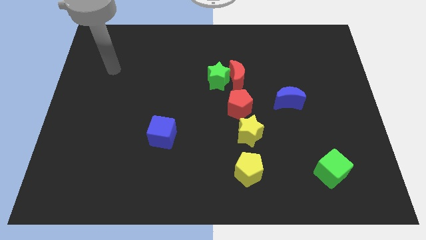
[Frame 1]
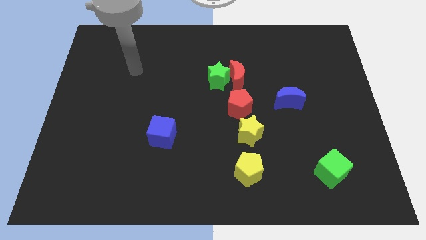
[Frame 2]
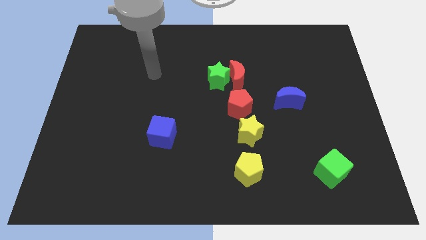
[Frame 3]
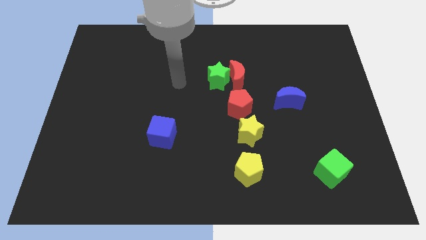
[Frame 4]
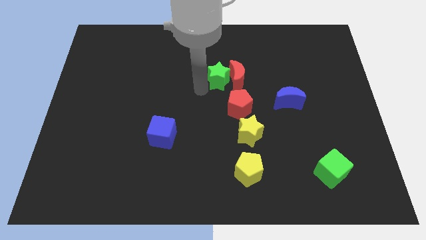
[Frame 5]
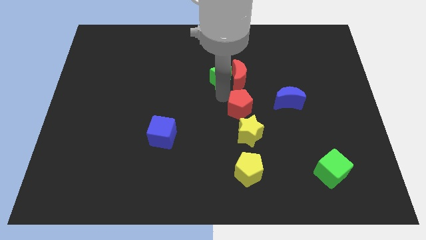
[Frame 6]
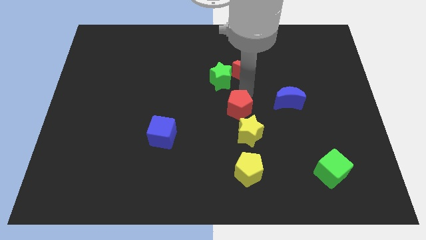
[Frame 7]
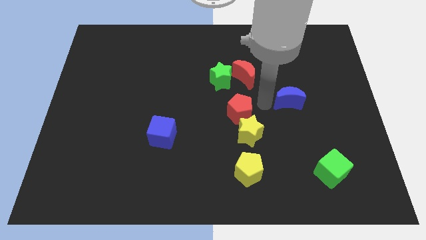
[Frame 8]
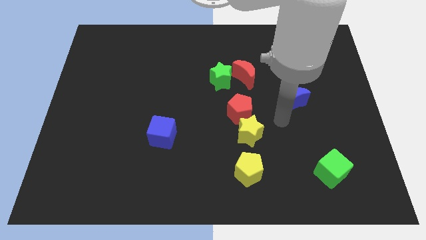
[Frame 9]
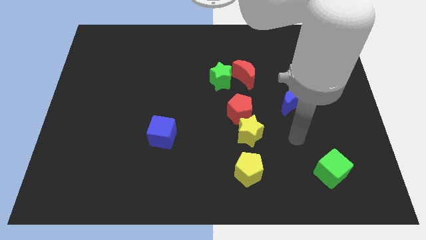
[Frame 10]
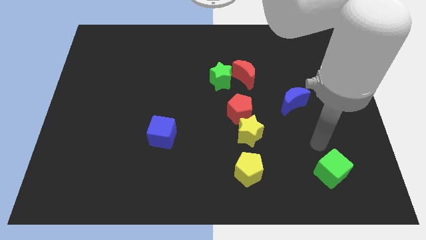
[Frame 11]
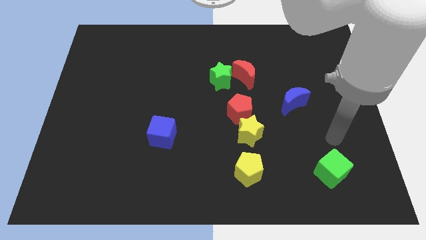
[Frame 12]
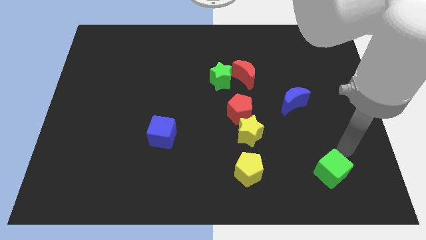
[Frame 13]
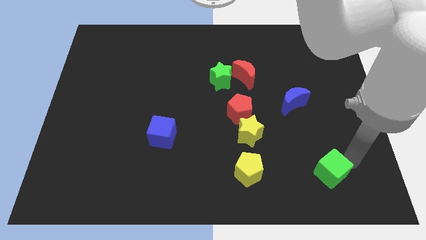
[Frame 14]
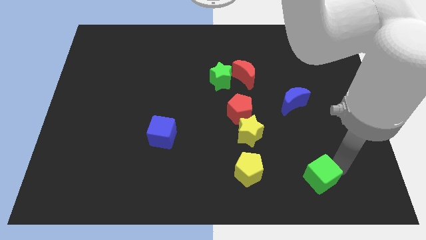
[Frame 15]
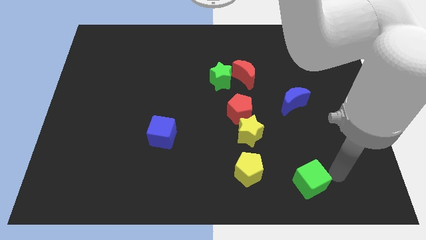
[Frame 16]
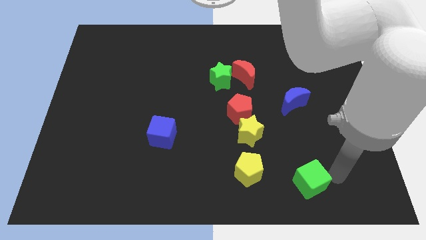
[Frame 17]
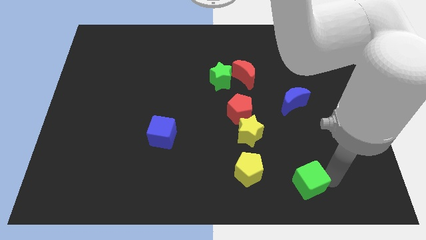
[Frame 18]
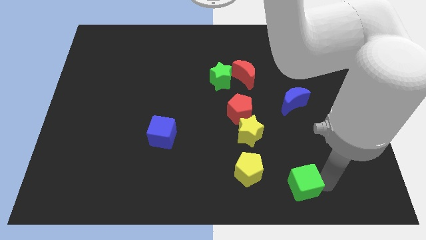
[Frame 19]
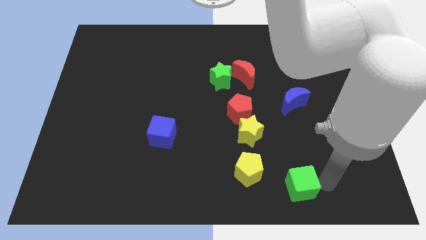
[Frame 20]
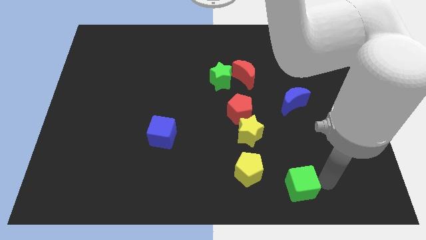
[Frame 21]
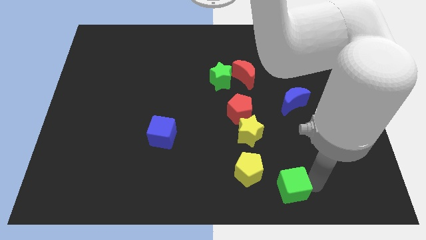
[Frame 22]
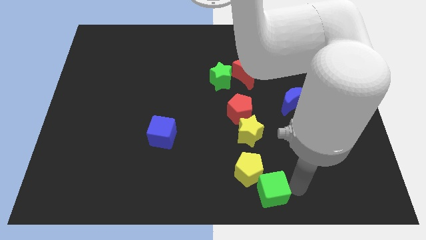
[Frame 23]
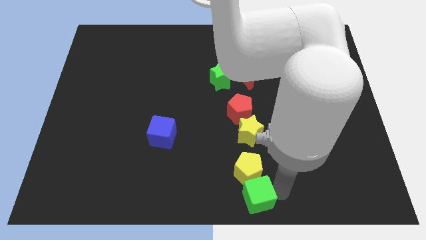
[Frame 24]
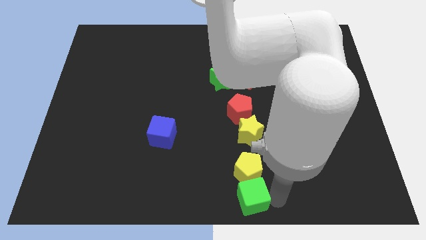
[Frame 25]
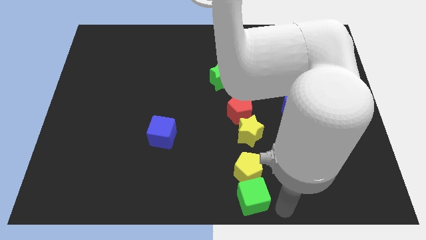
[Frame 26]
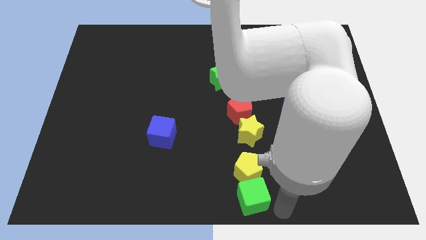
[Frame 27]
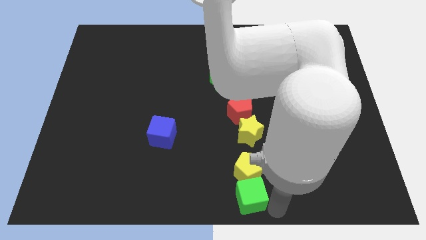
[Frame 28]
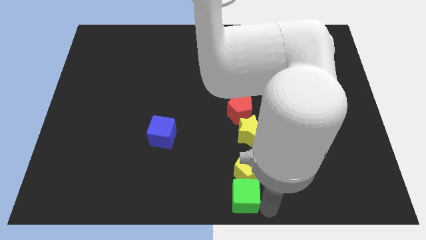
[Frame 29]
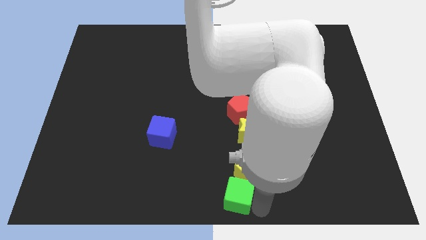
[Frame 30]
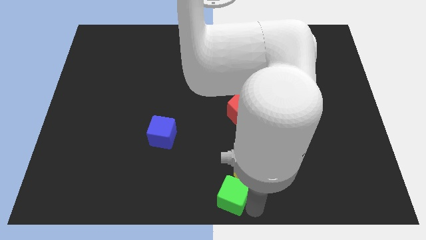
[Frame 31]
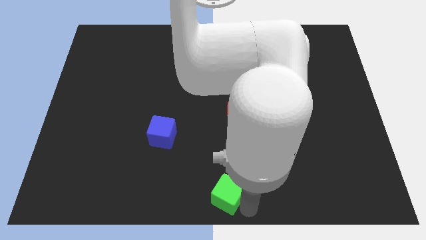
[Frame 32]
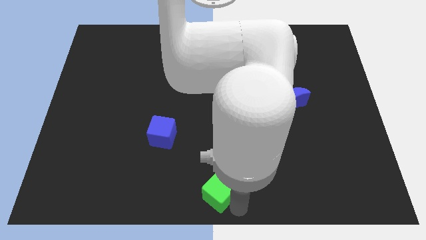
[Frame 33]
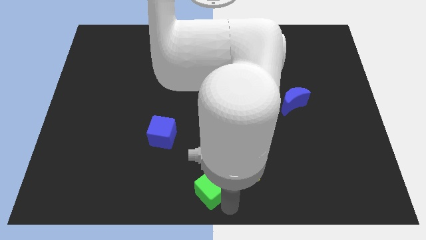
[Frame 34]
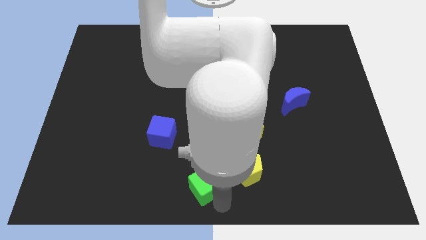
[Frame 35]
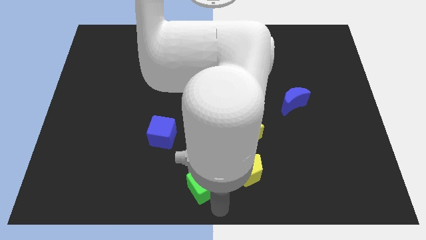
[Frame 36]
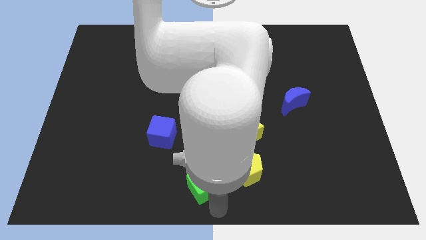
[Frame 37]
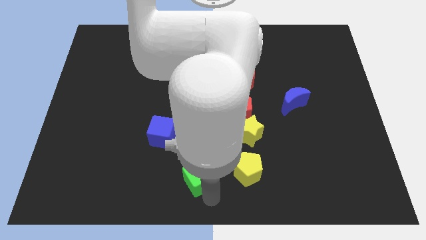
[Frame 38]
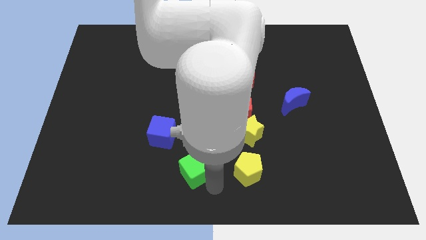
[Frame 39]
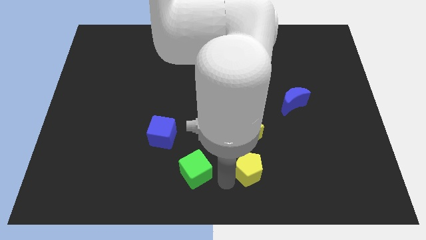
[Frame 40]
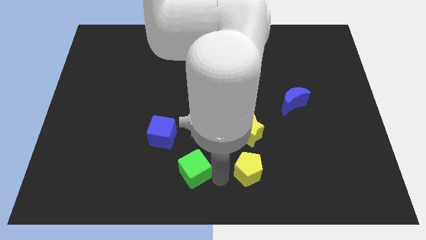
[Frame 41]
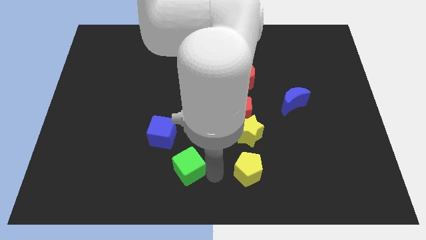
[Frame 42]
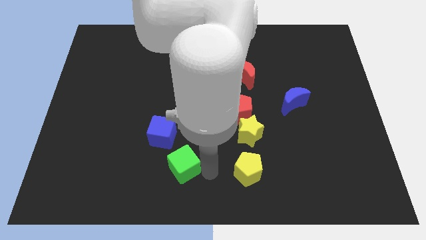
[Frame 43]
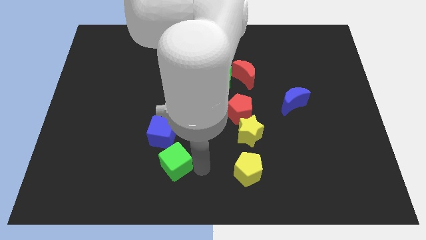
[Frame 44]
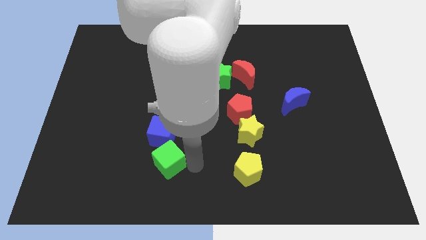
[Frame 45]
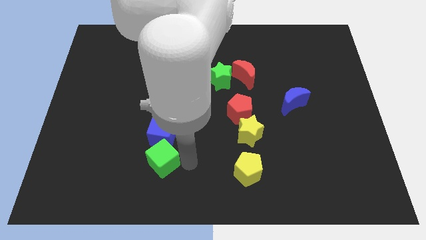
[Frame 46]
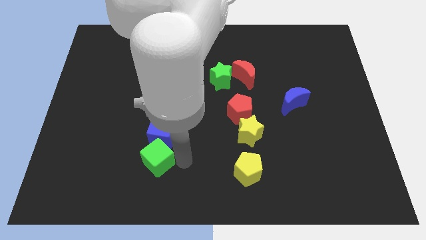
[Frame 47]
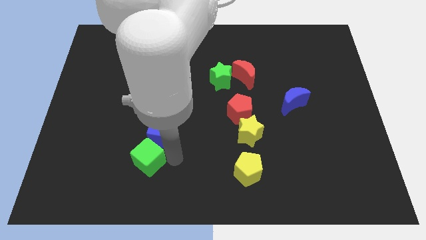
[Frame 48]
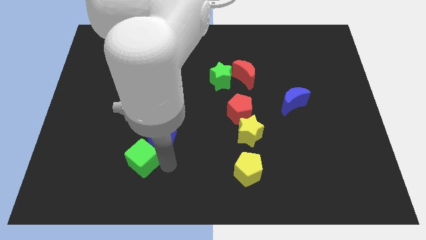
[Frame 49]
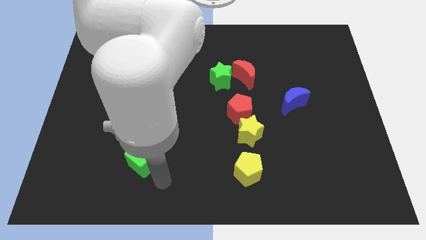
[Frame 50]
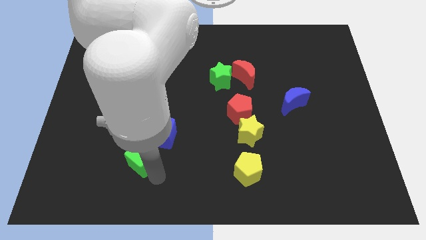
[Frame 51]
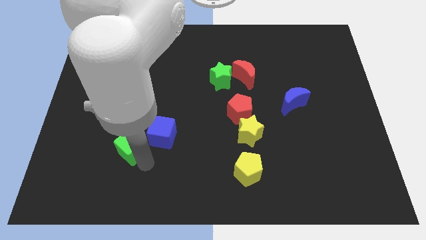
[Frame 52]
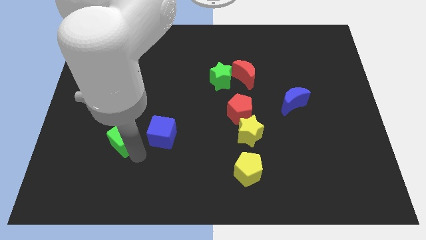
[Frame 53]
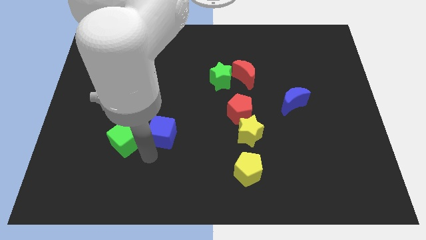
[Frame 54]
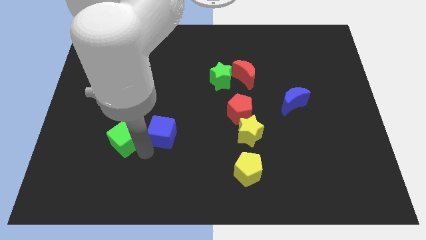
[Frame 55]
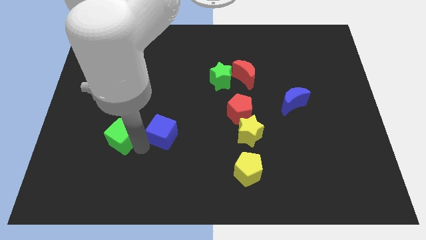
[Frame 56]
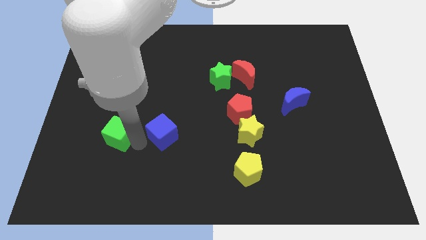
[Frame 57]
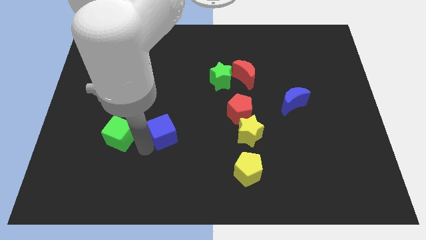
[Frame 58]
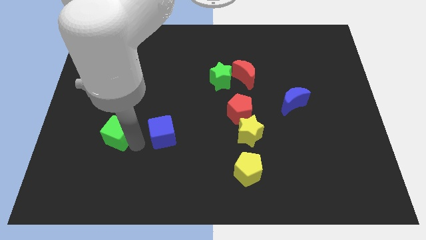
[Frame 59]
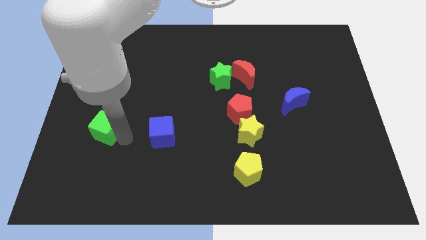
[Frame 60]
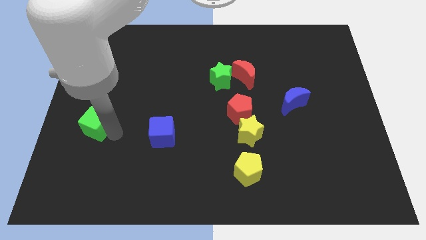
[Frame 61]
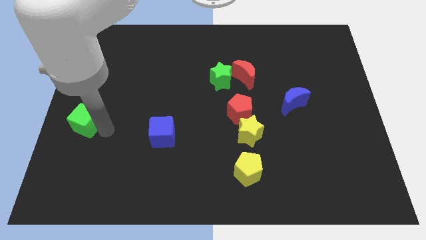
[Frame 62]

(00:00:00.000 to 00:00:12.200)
push the green cube to the center left
